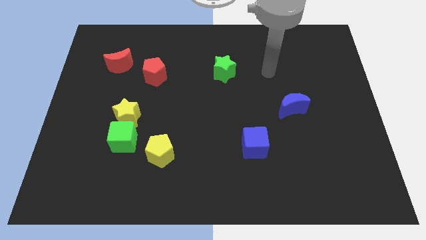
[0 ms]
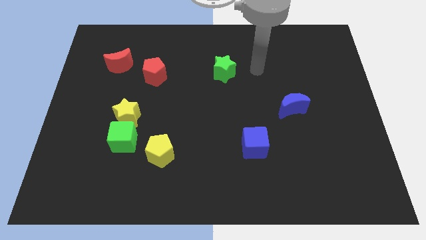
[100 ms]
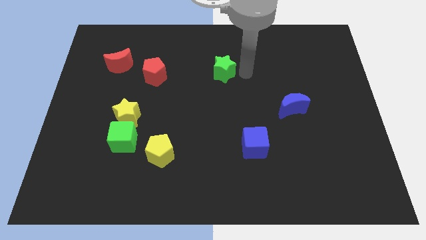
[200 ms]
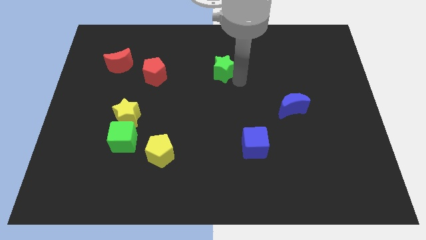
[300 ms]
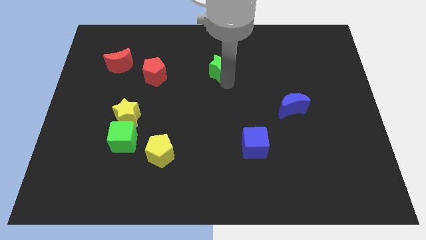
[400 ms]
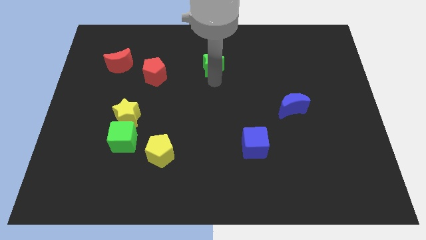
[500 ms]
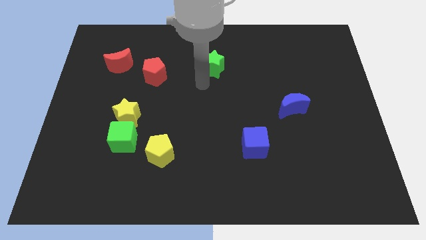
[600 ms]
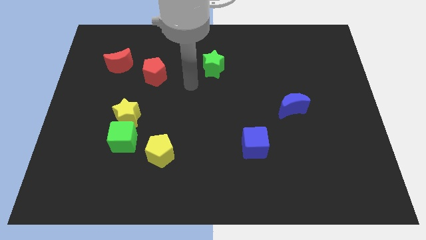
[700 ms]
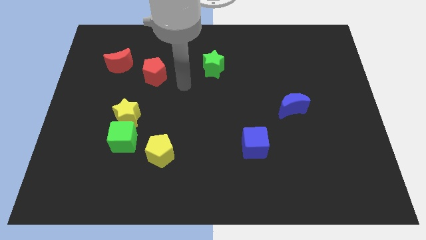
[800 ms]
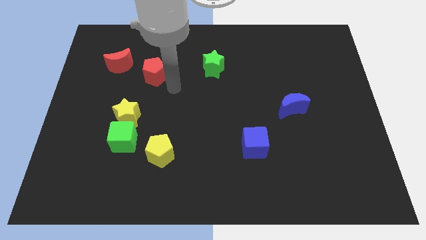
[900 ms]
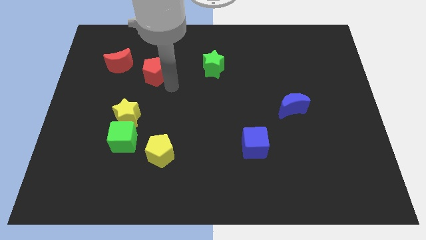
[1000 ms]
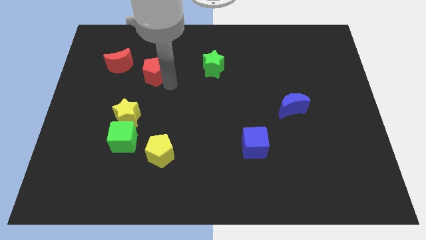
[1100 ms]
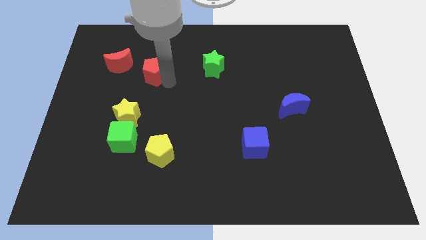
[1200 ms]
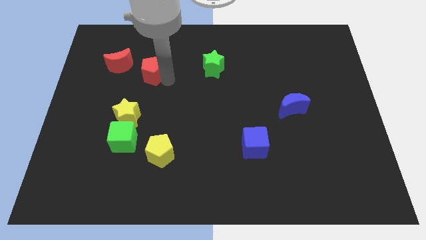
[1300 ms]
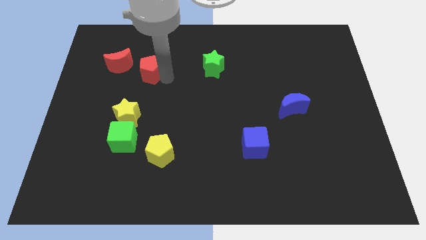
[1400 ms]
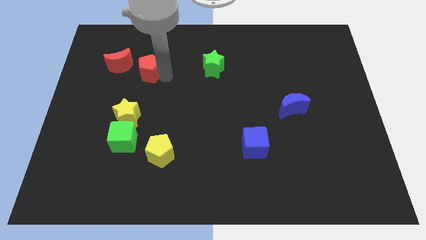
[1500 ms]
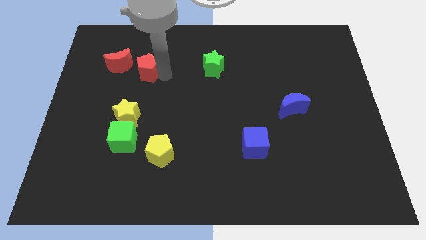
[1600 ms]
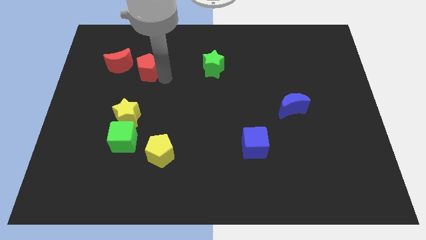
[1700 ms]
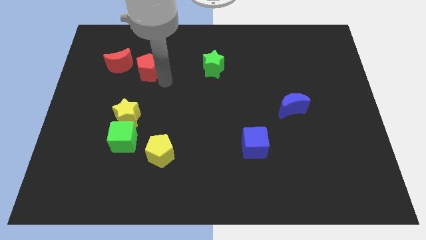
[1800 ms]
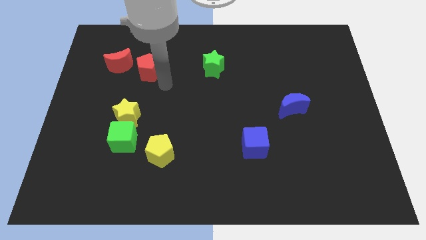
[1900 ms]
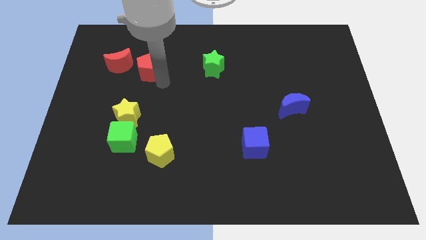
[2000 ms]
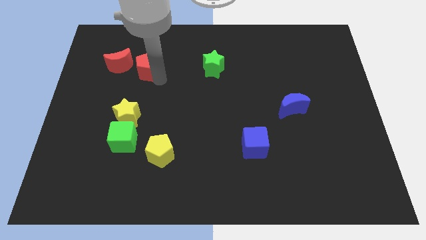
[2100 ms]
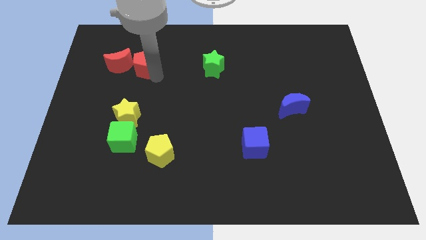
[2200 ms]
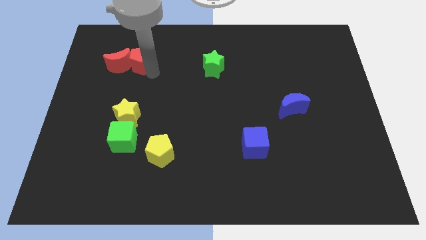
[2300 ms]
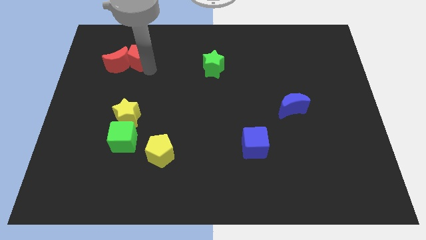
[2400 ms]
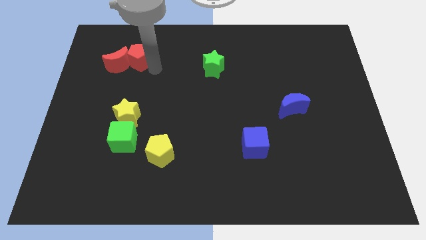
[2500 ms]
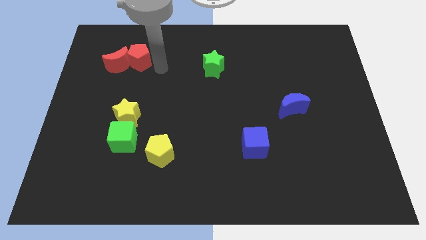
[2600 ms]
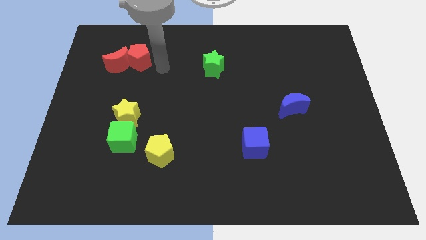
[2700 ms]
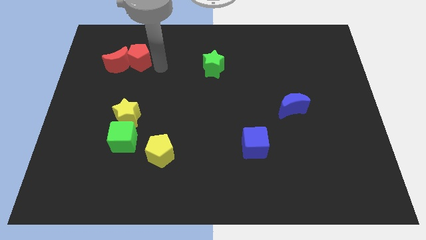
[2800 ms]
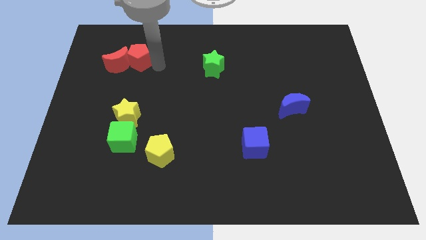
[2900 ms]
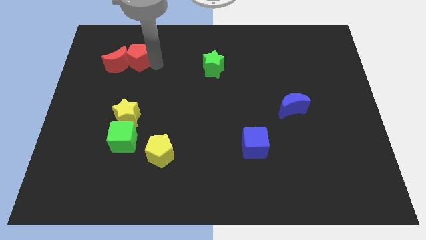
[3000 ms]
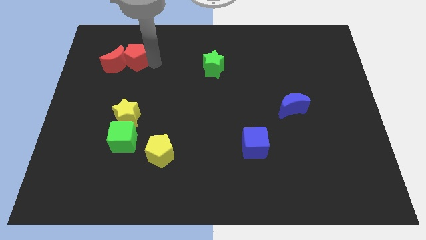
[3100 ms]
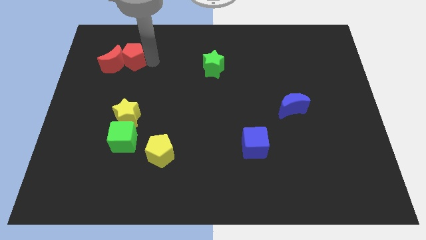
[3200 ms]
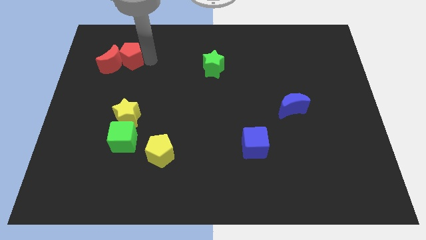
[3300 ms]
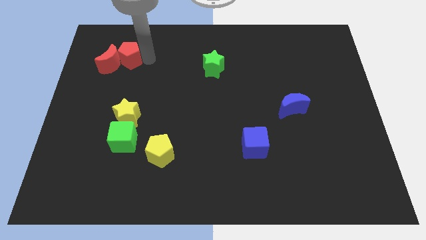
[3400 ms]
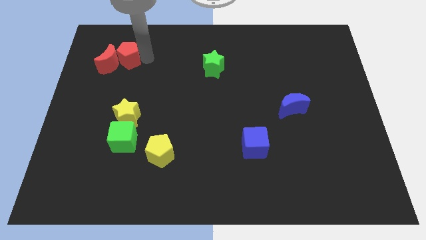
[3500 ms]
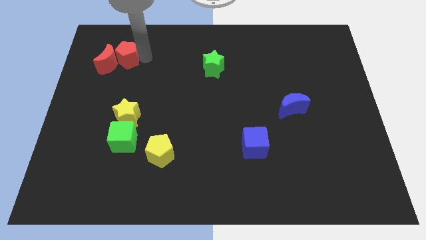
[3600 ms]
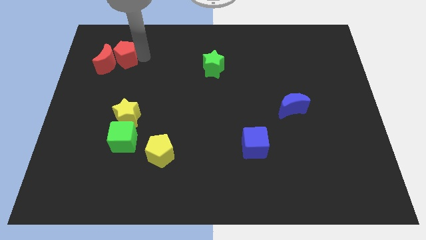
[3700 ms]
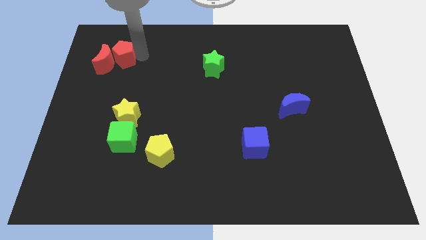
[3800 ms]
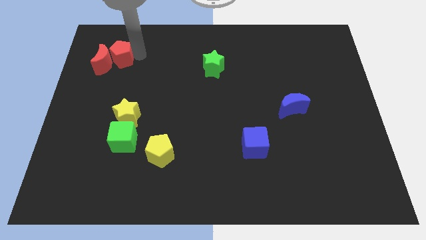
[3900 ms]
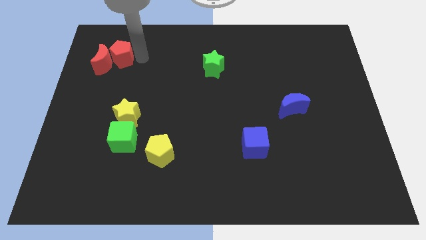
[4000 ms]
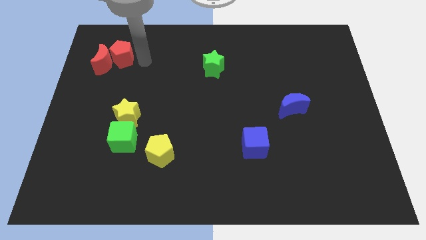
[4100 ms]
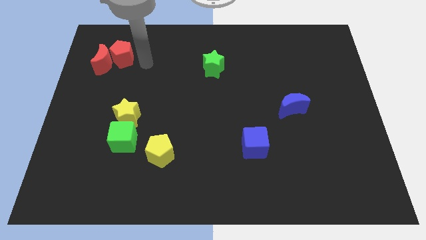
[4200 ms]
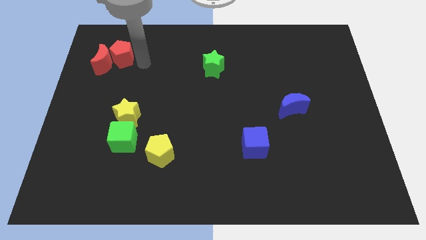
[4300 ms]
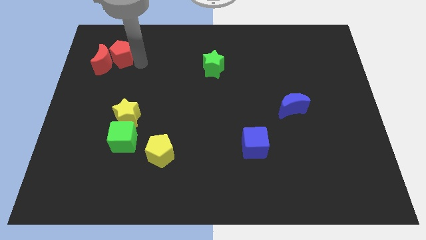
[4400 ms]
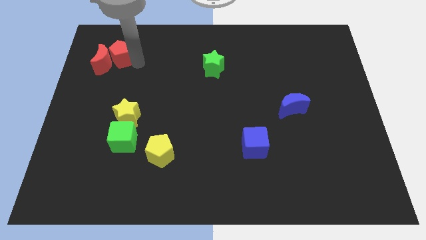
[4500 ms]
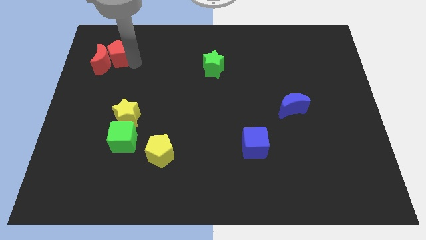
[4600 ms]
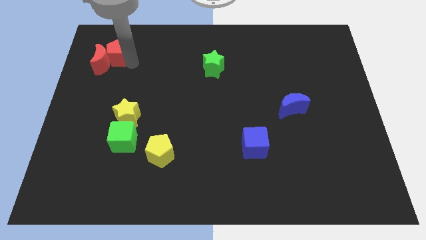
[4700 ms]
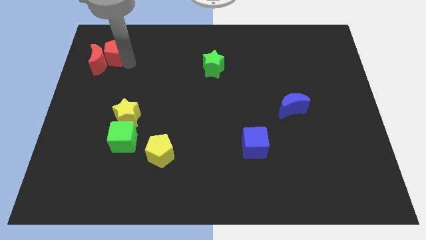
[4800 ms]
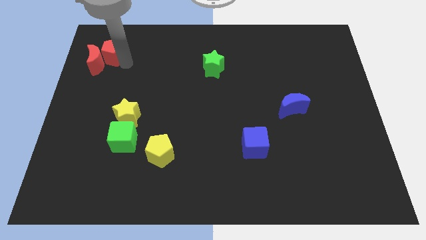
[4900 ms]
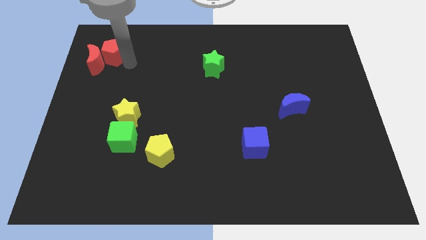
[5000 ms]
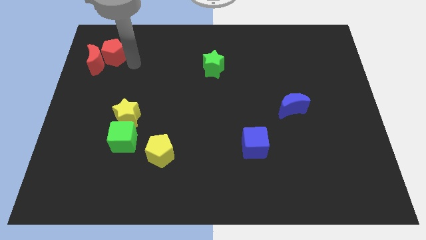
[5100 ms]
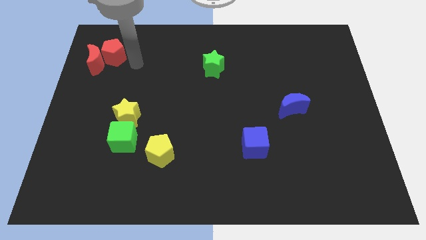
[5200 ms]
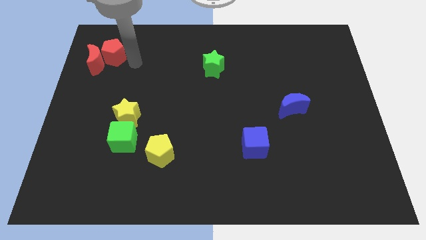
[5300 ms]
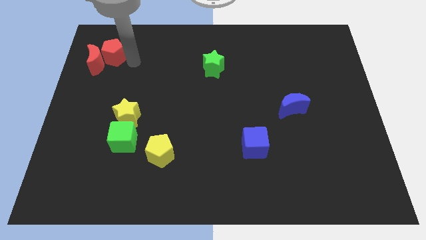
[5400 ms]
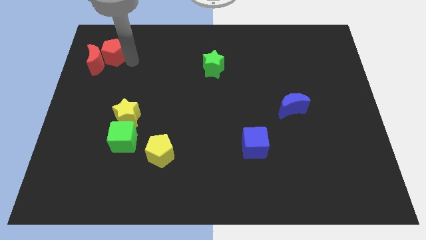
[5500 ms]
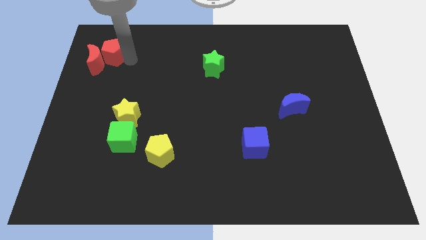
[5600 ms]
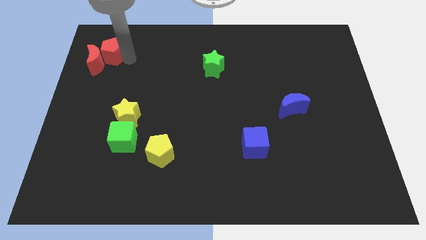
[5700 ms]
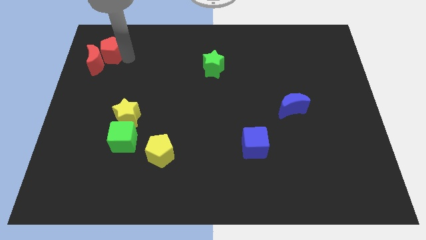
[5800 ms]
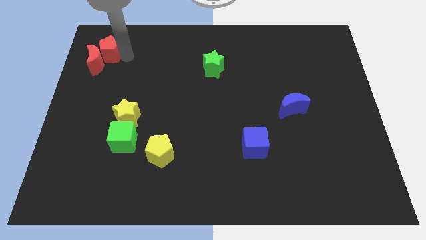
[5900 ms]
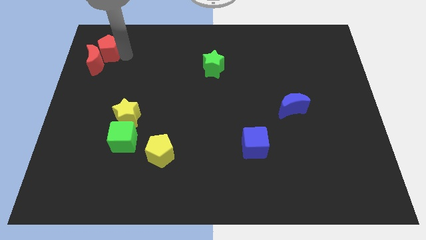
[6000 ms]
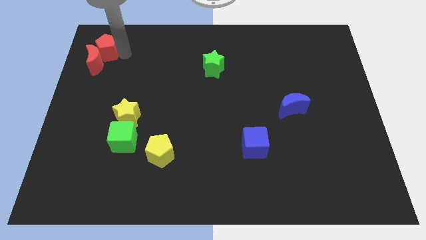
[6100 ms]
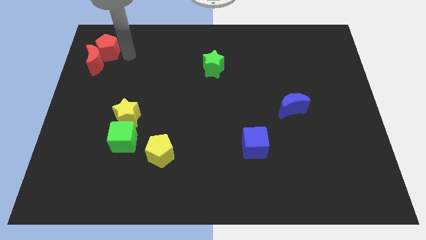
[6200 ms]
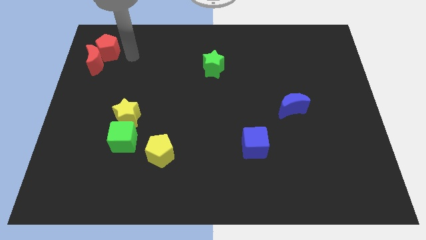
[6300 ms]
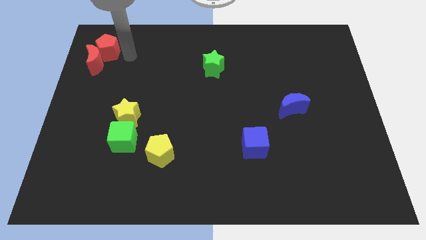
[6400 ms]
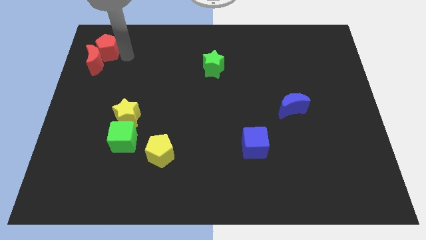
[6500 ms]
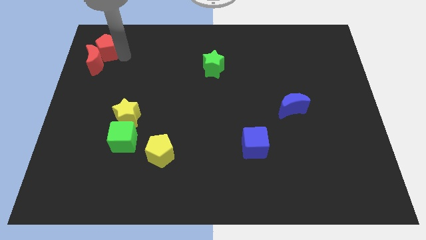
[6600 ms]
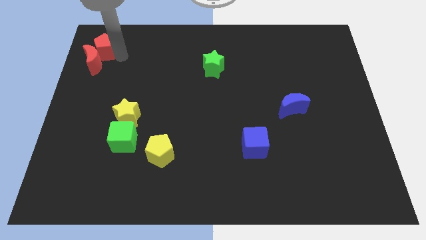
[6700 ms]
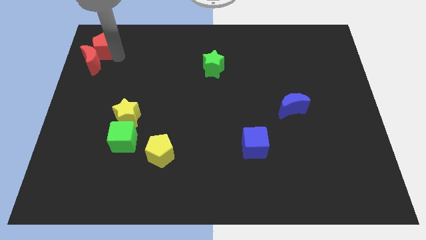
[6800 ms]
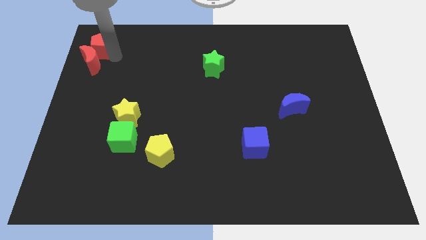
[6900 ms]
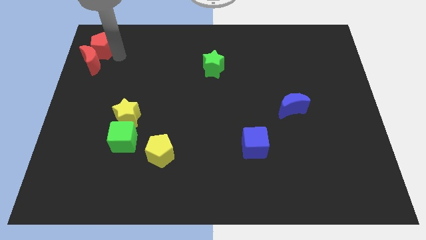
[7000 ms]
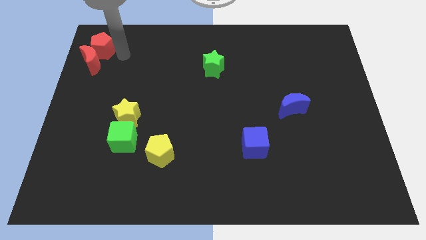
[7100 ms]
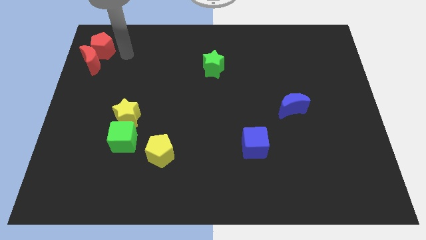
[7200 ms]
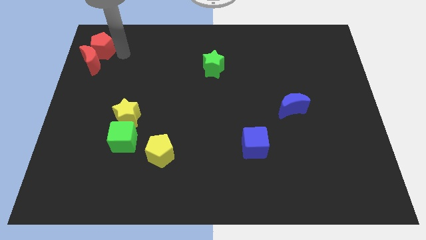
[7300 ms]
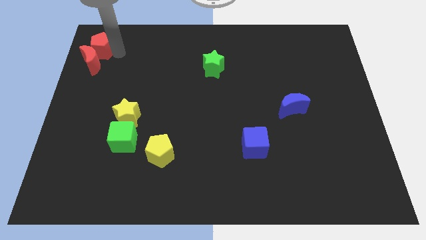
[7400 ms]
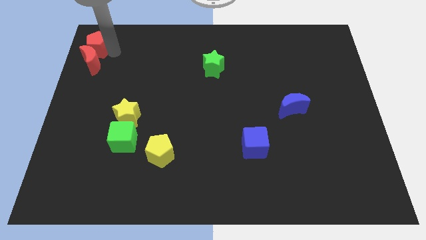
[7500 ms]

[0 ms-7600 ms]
move the red pentagon to the top left corner
